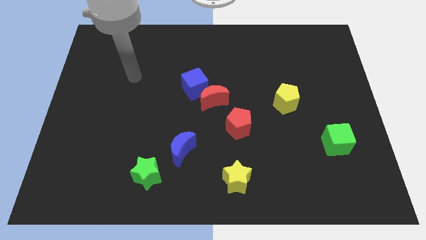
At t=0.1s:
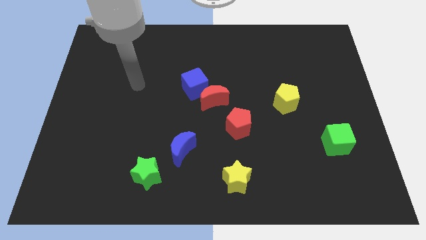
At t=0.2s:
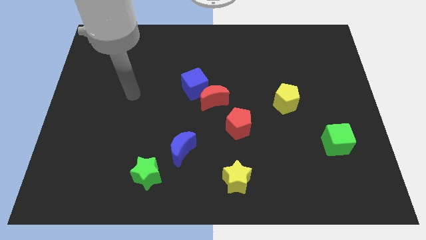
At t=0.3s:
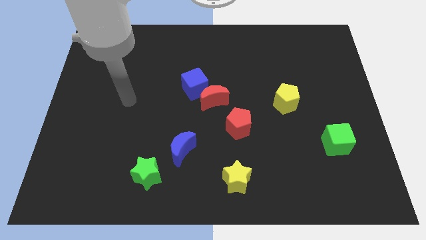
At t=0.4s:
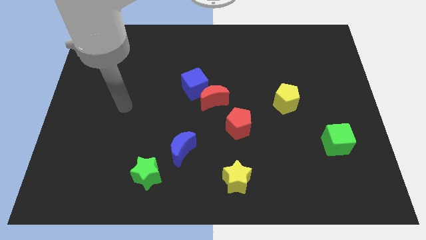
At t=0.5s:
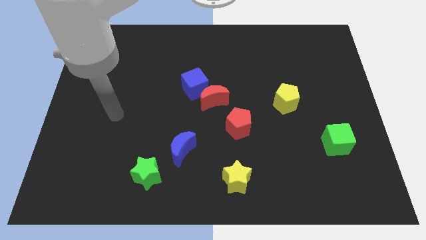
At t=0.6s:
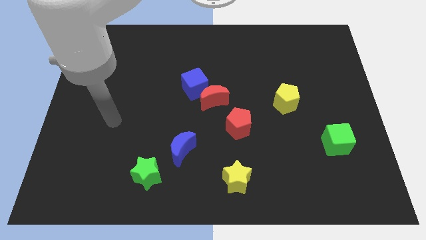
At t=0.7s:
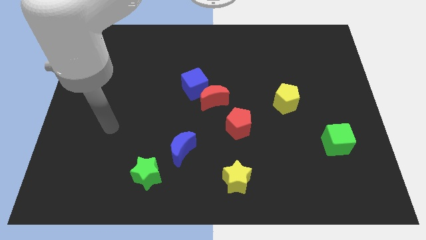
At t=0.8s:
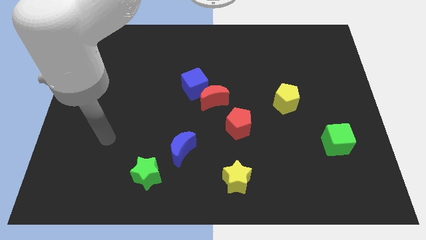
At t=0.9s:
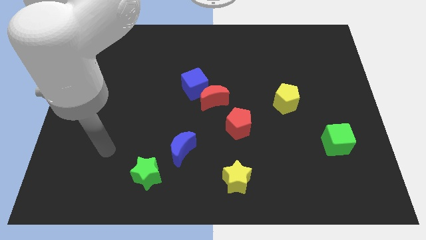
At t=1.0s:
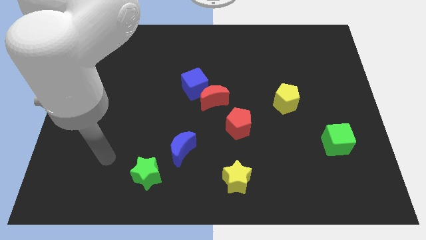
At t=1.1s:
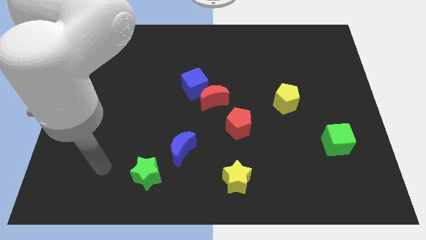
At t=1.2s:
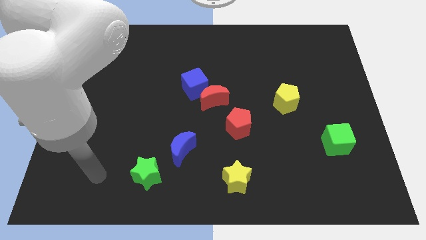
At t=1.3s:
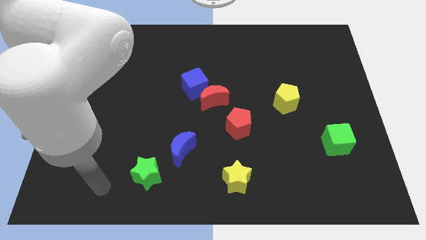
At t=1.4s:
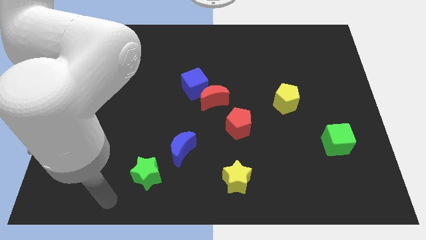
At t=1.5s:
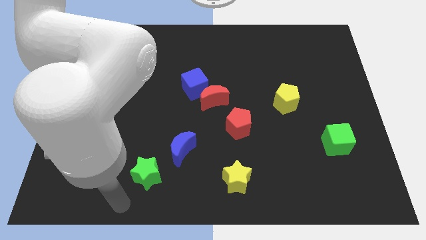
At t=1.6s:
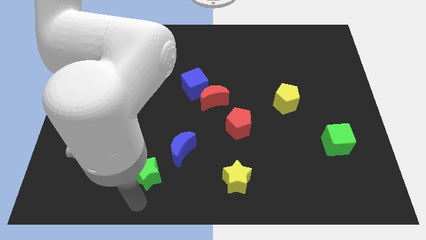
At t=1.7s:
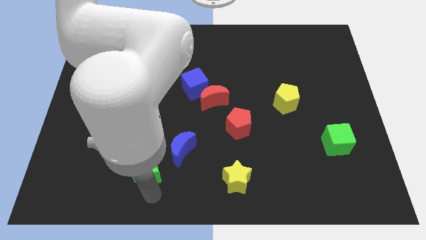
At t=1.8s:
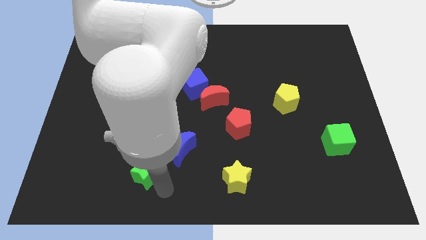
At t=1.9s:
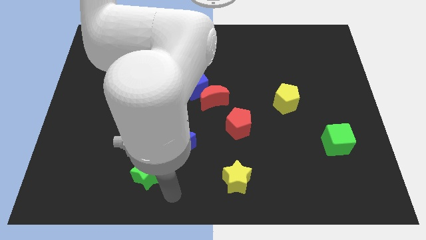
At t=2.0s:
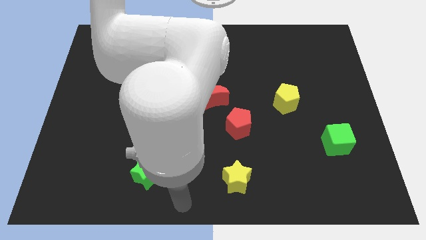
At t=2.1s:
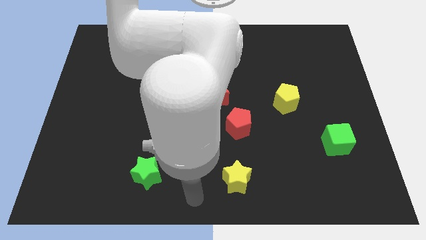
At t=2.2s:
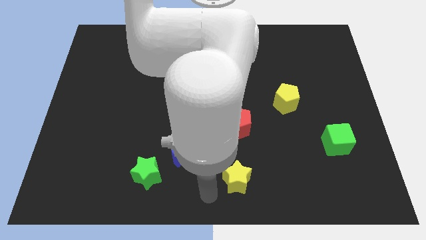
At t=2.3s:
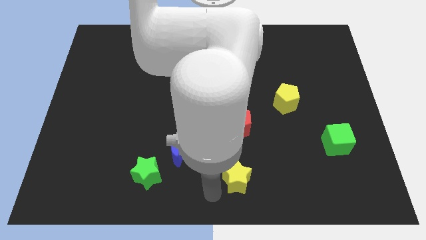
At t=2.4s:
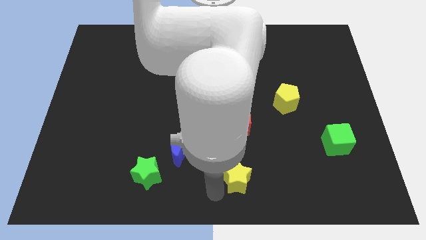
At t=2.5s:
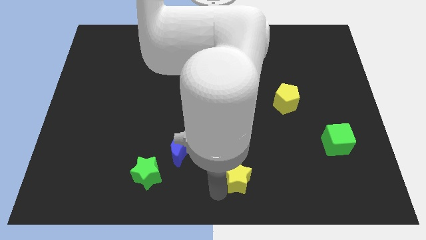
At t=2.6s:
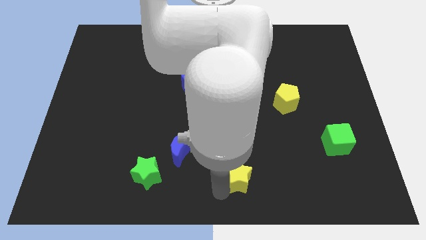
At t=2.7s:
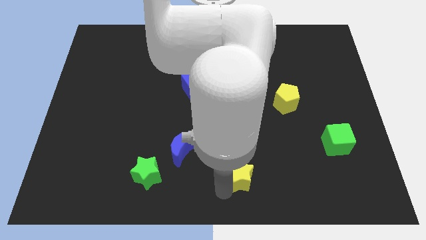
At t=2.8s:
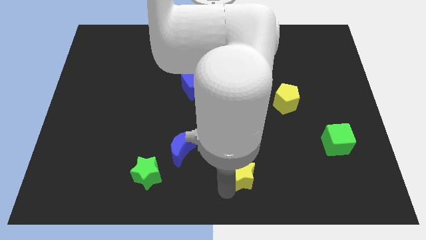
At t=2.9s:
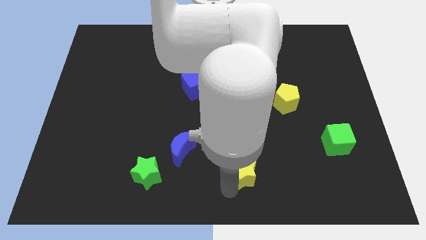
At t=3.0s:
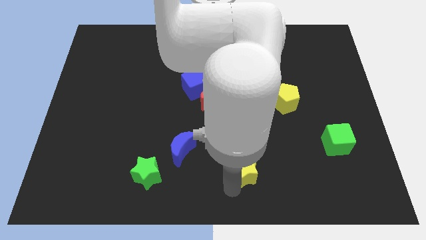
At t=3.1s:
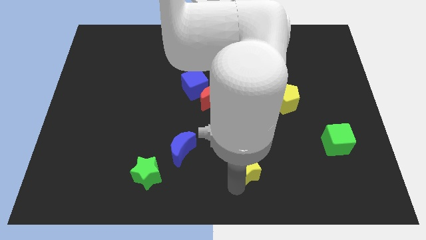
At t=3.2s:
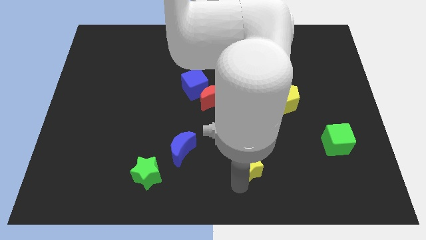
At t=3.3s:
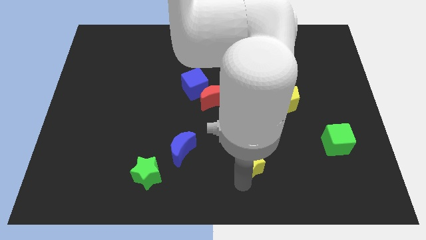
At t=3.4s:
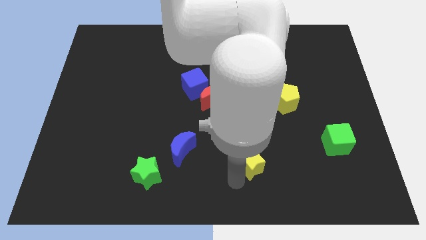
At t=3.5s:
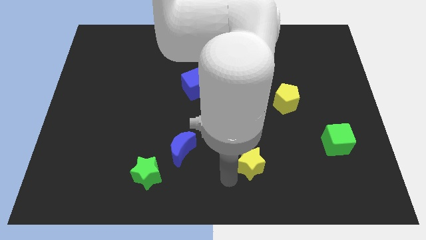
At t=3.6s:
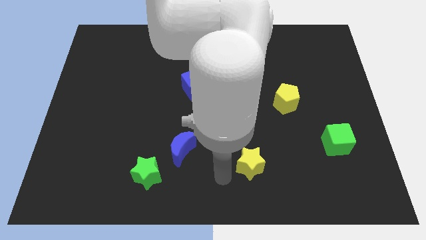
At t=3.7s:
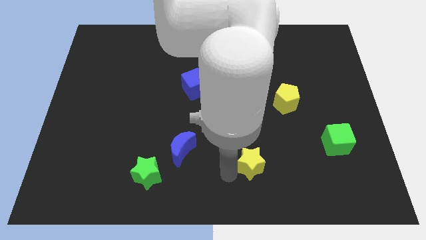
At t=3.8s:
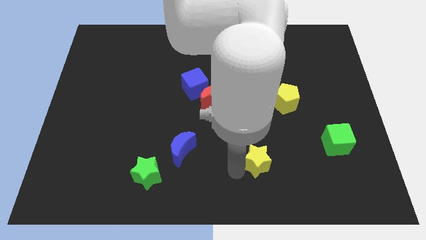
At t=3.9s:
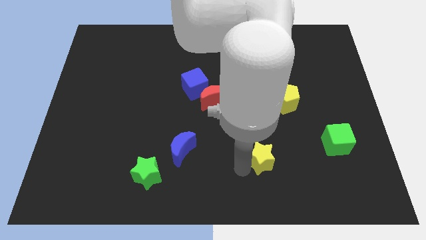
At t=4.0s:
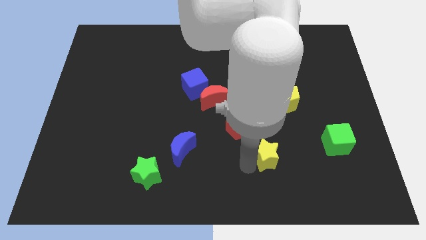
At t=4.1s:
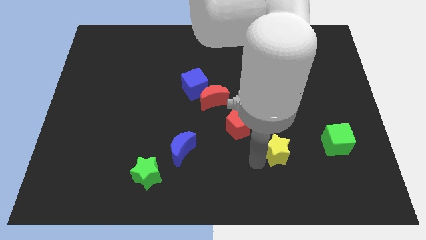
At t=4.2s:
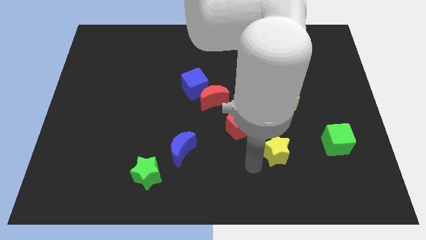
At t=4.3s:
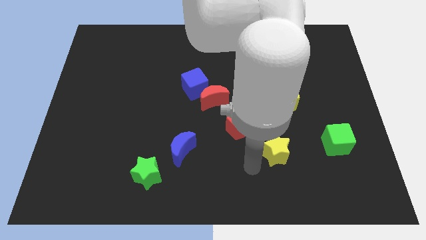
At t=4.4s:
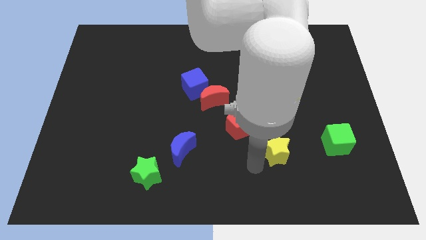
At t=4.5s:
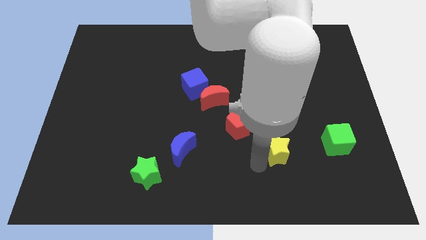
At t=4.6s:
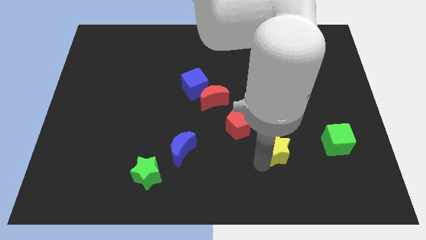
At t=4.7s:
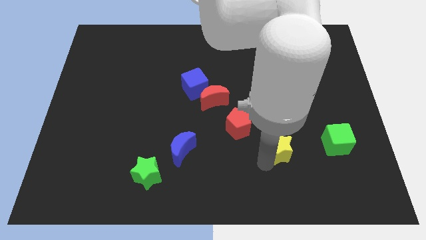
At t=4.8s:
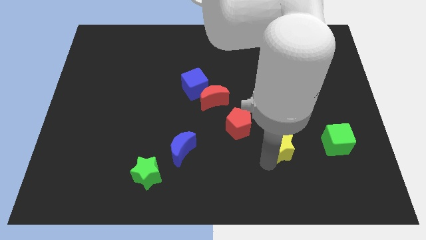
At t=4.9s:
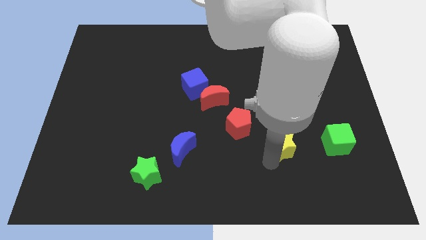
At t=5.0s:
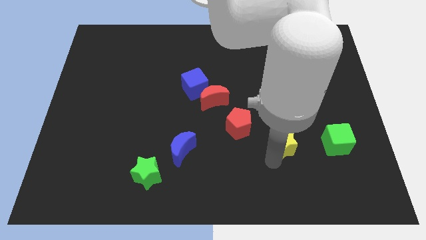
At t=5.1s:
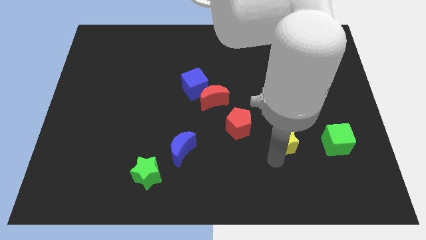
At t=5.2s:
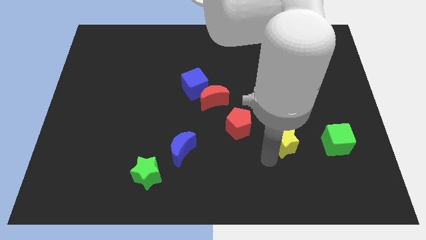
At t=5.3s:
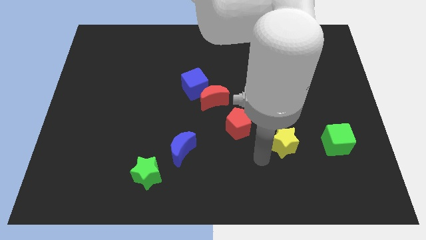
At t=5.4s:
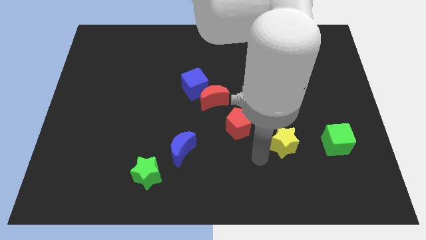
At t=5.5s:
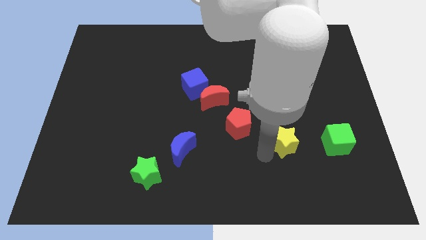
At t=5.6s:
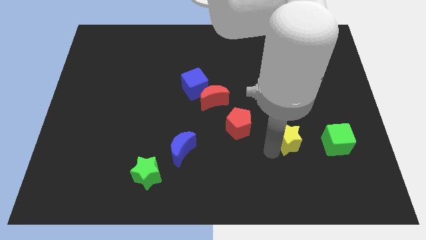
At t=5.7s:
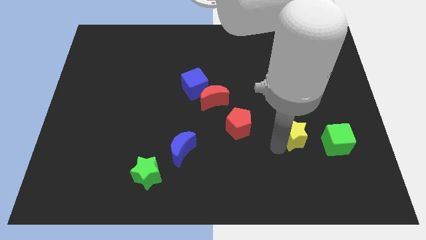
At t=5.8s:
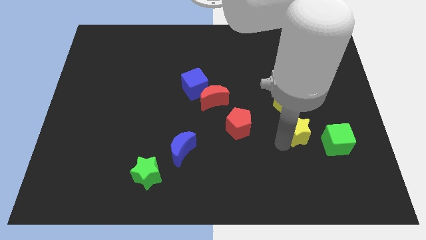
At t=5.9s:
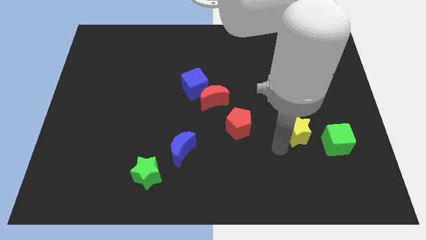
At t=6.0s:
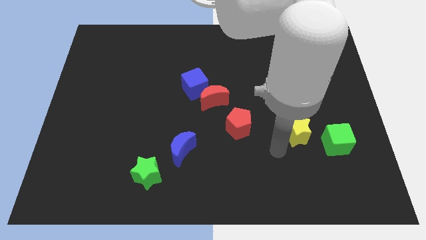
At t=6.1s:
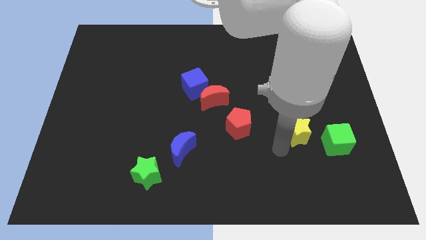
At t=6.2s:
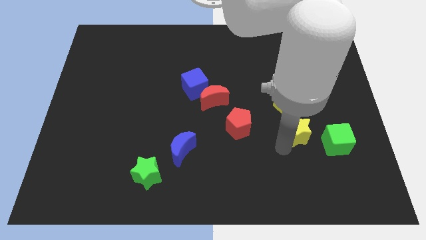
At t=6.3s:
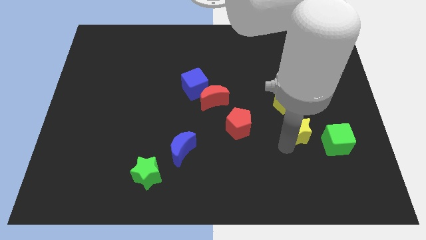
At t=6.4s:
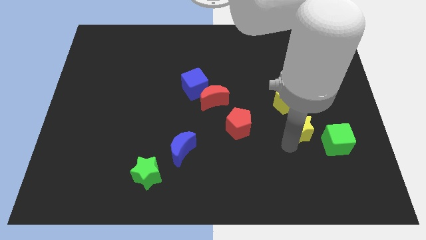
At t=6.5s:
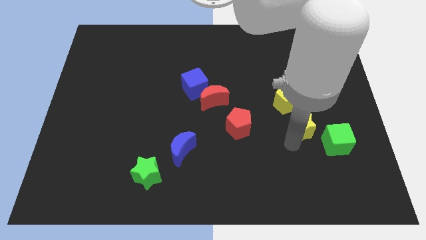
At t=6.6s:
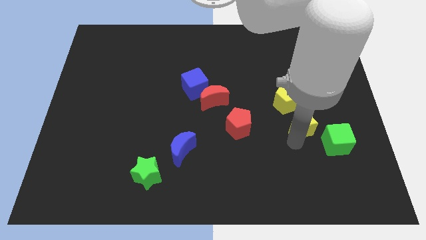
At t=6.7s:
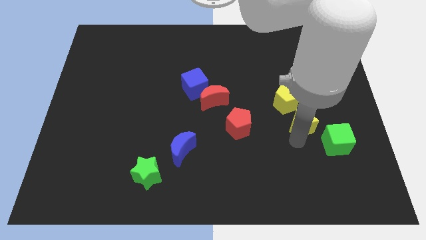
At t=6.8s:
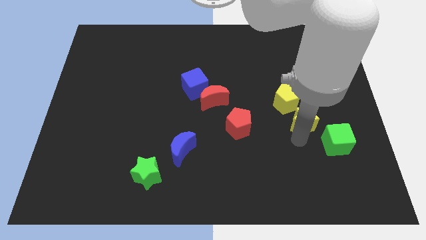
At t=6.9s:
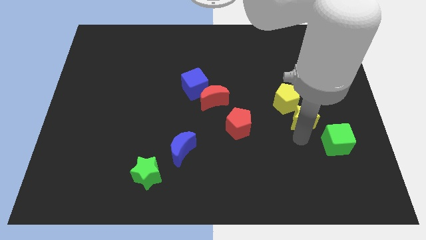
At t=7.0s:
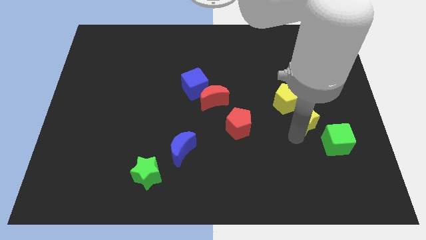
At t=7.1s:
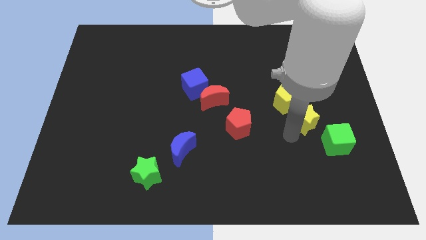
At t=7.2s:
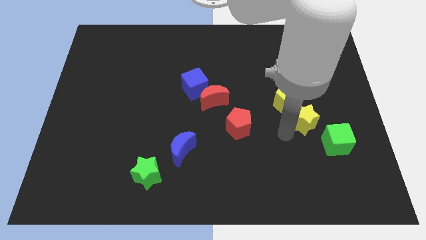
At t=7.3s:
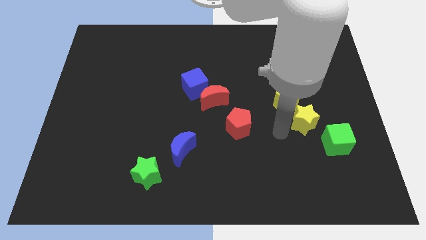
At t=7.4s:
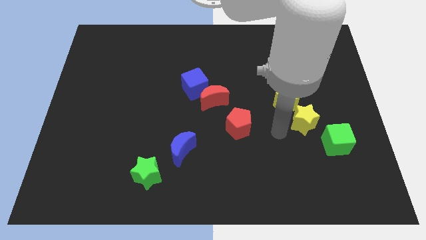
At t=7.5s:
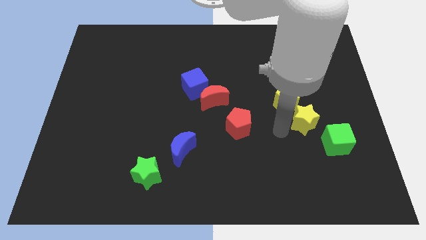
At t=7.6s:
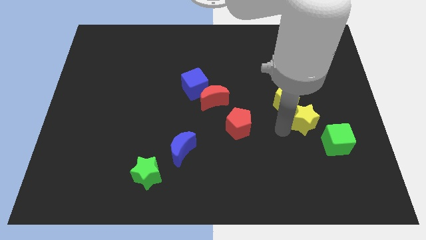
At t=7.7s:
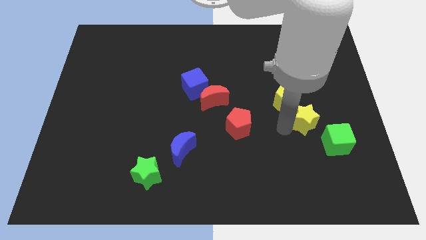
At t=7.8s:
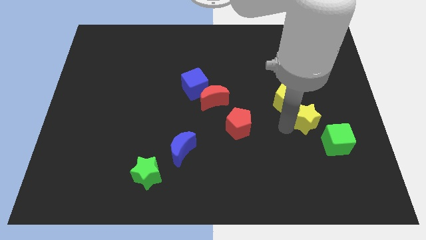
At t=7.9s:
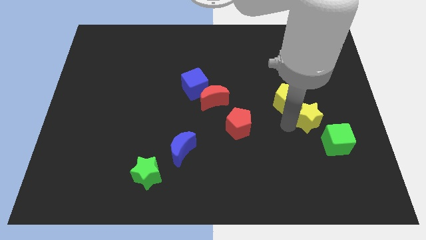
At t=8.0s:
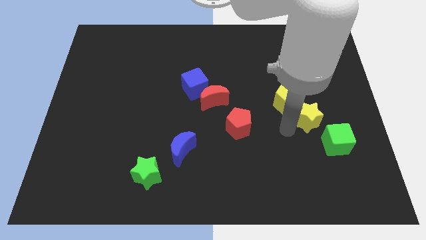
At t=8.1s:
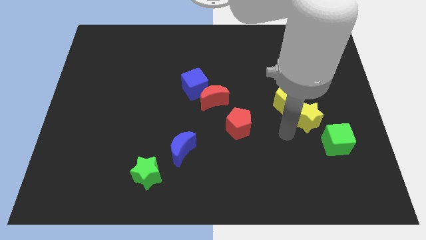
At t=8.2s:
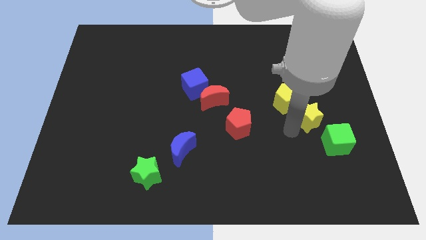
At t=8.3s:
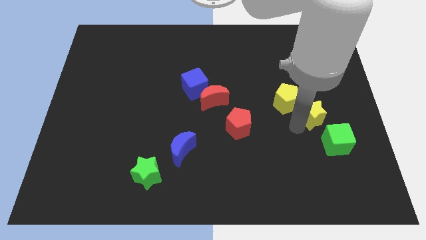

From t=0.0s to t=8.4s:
push the yellow star to the top of the green cube
